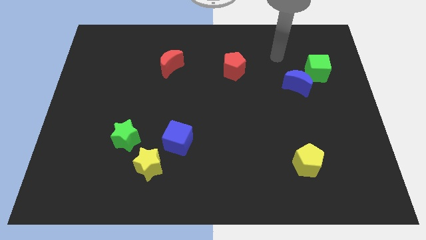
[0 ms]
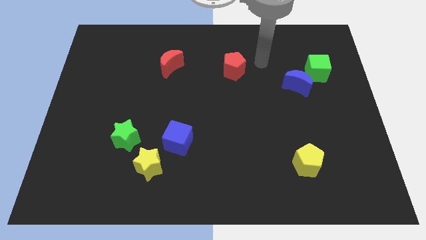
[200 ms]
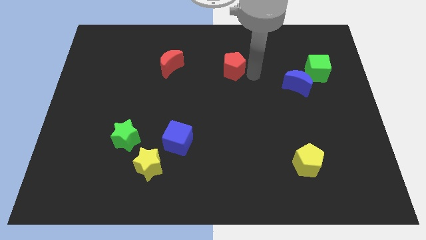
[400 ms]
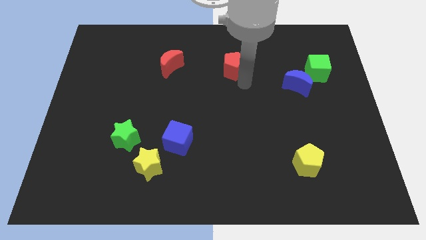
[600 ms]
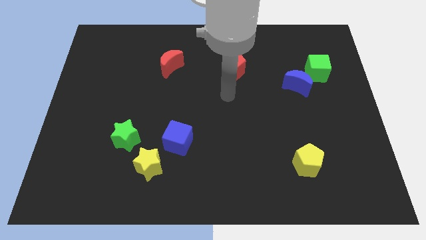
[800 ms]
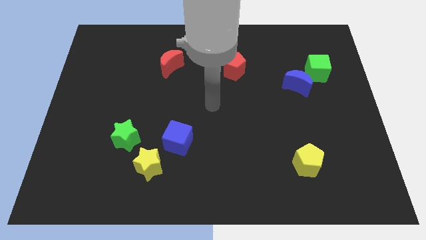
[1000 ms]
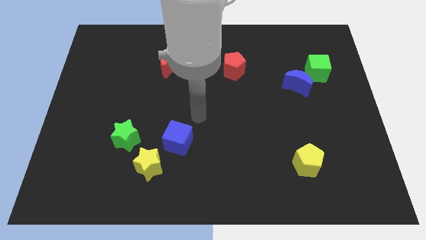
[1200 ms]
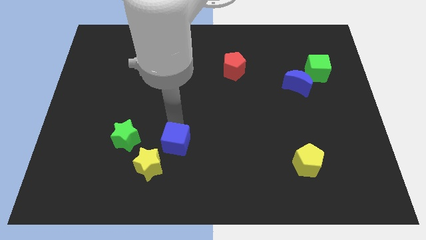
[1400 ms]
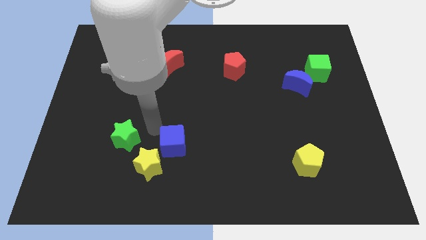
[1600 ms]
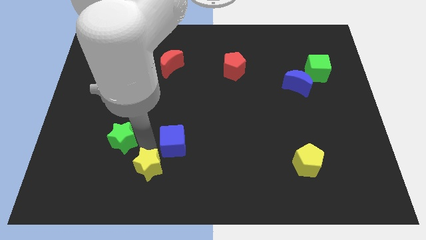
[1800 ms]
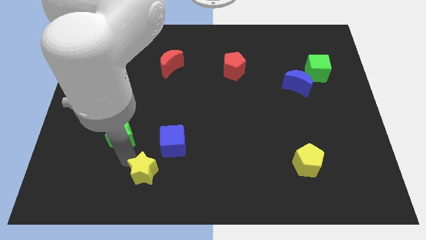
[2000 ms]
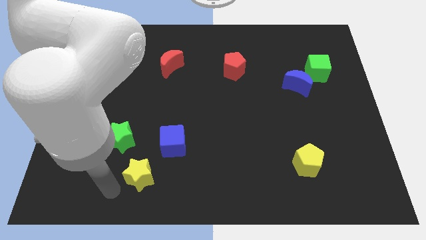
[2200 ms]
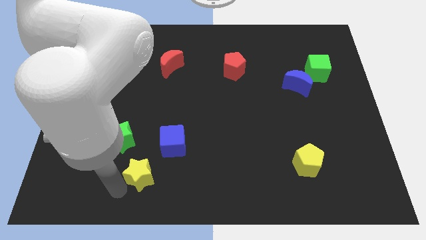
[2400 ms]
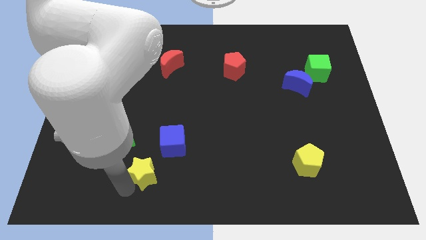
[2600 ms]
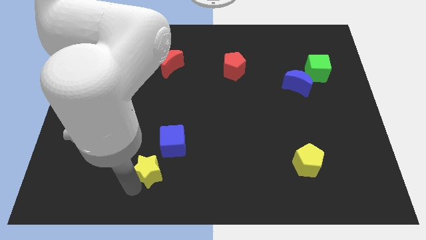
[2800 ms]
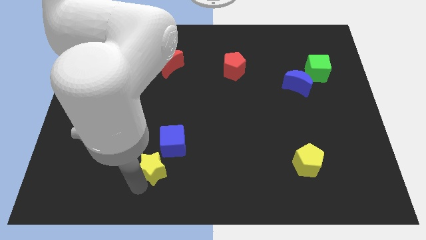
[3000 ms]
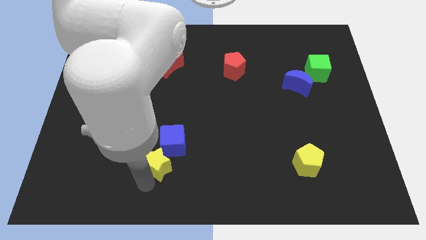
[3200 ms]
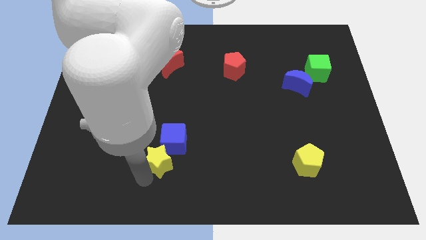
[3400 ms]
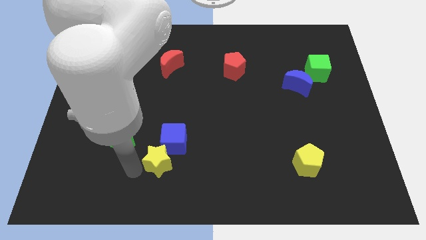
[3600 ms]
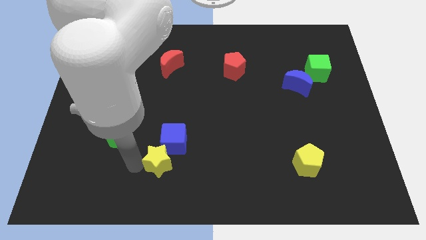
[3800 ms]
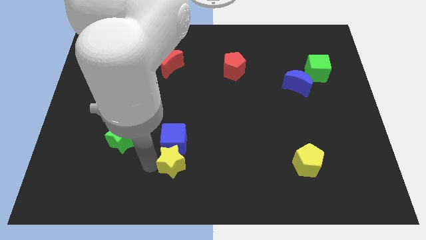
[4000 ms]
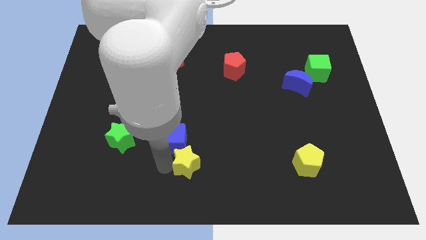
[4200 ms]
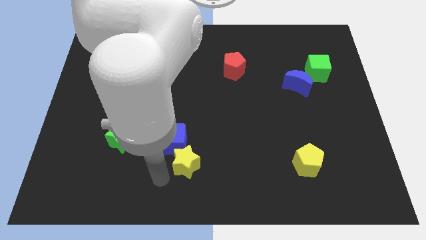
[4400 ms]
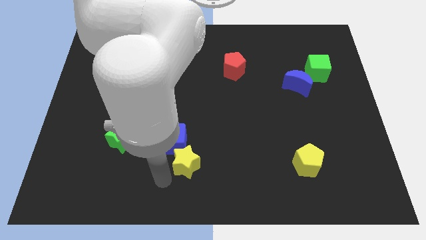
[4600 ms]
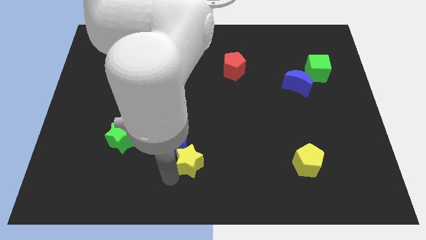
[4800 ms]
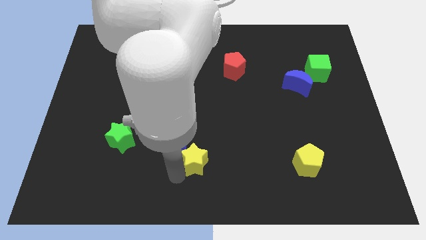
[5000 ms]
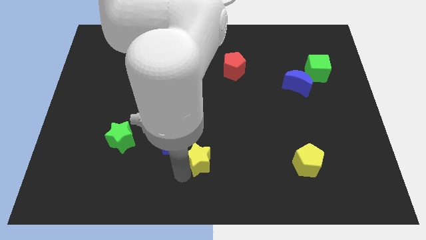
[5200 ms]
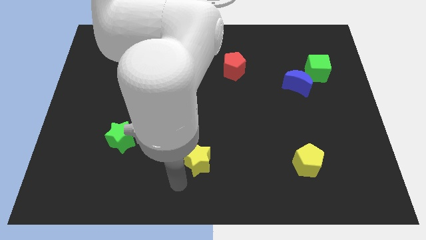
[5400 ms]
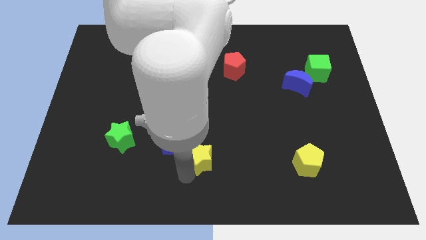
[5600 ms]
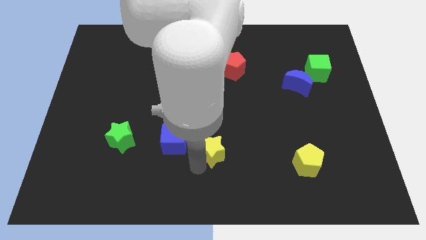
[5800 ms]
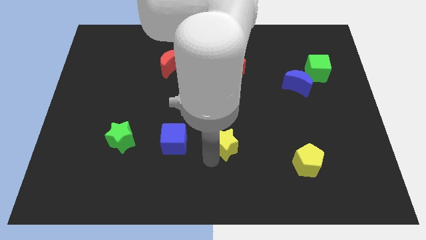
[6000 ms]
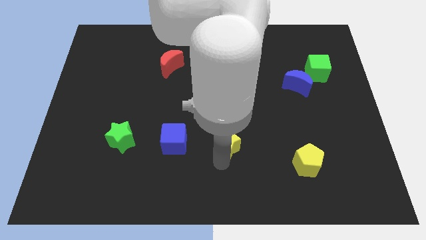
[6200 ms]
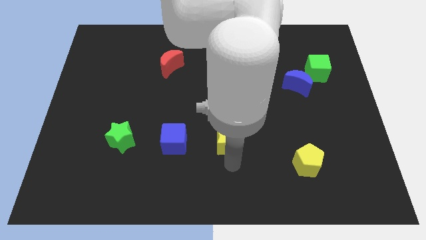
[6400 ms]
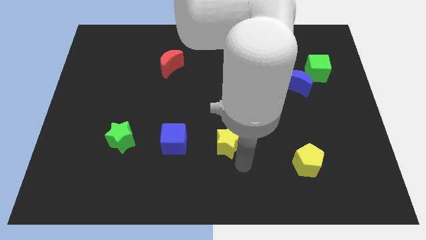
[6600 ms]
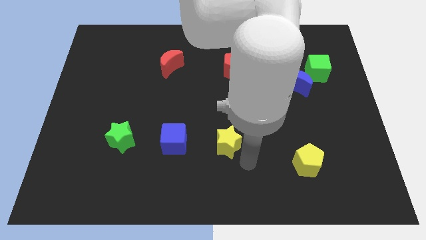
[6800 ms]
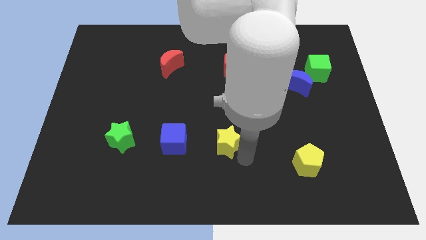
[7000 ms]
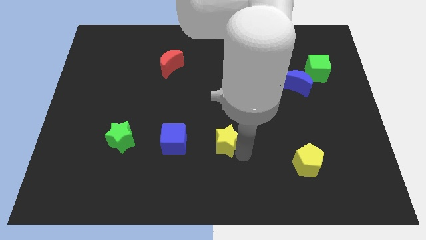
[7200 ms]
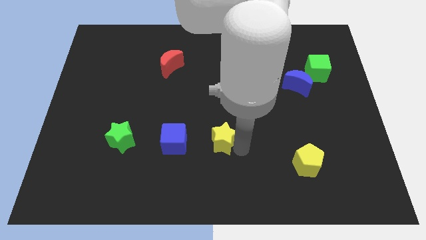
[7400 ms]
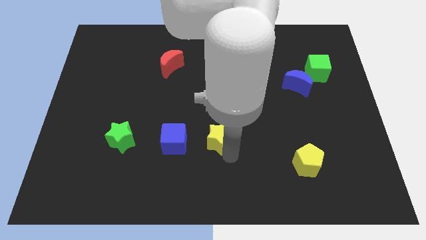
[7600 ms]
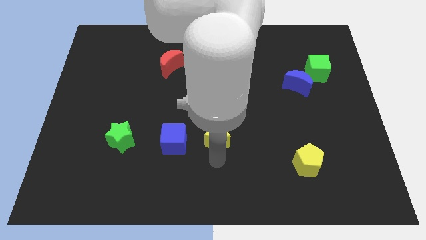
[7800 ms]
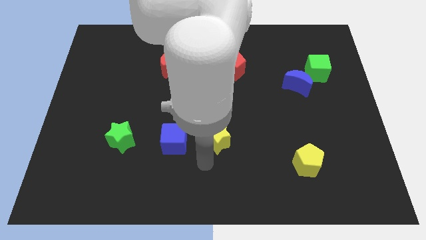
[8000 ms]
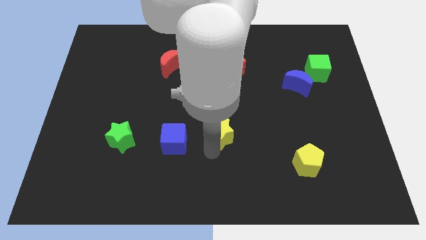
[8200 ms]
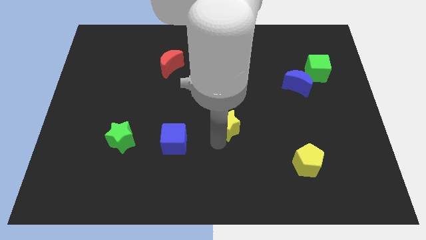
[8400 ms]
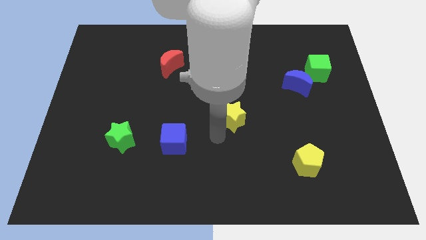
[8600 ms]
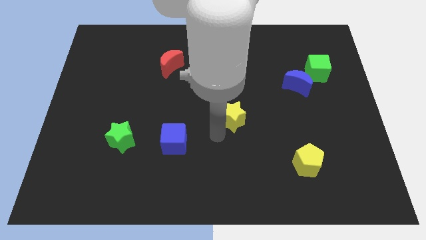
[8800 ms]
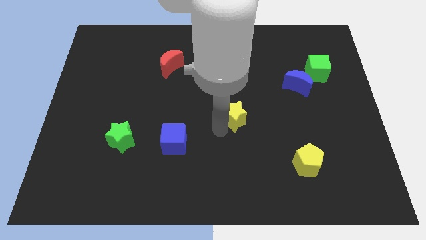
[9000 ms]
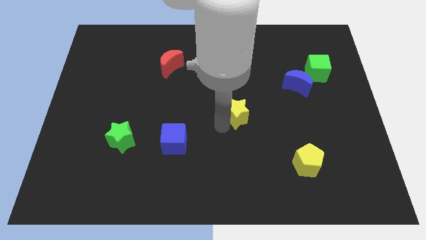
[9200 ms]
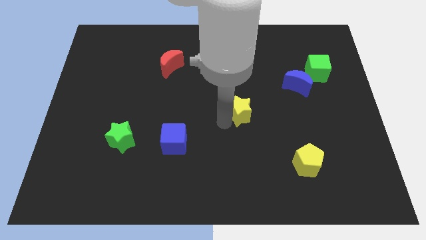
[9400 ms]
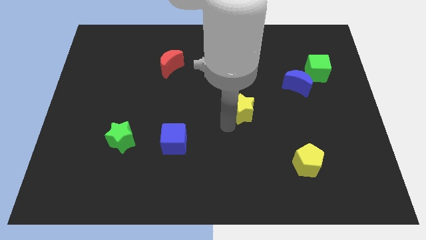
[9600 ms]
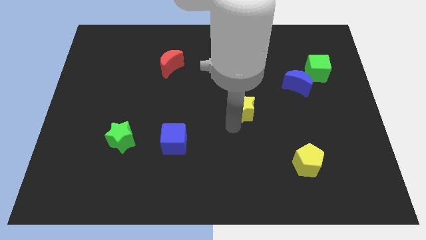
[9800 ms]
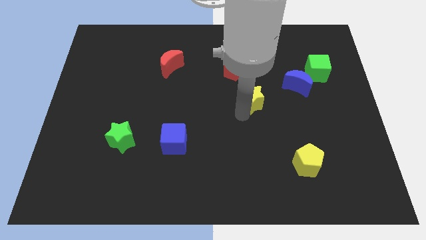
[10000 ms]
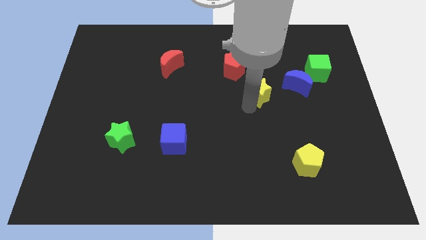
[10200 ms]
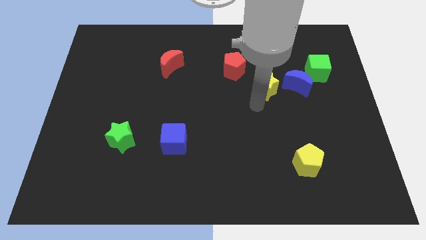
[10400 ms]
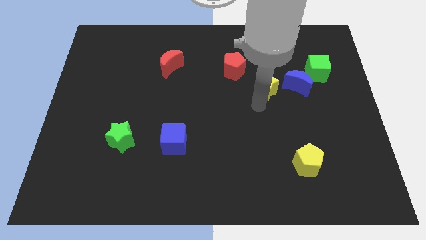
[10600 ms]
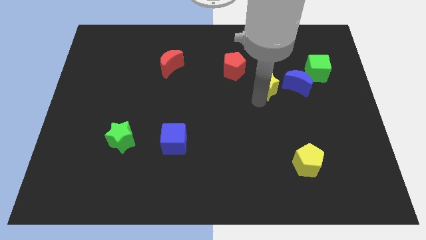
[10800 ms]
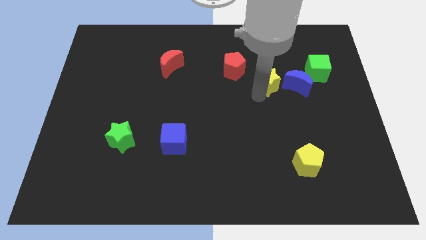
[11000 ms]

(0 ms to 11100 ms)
slide the yellow star to the top left of the blue moon

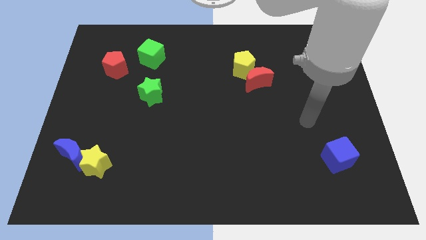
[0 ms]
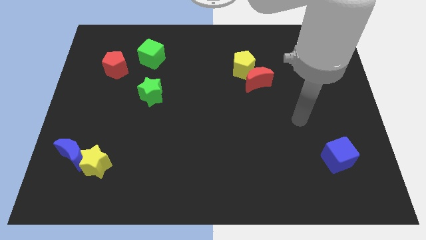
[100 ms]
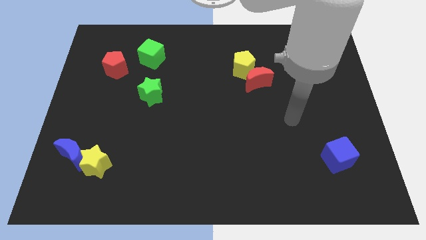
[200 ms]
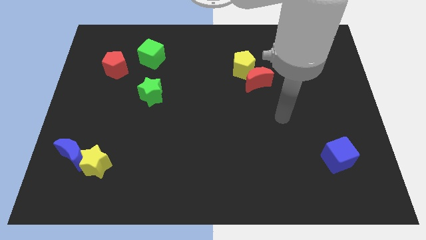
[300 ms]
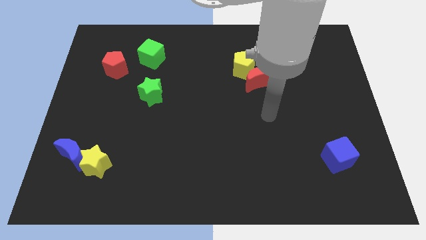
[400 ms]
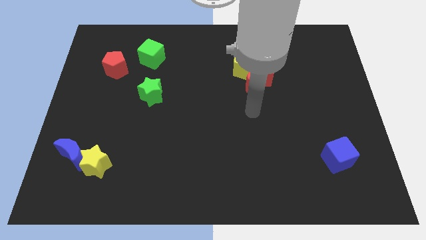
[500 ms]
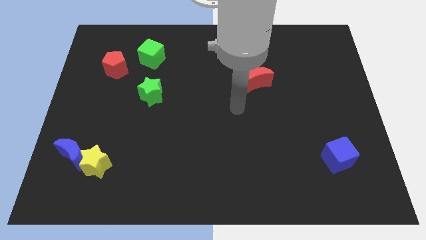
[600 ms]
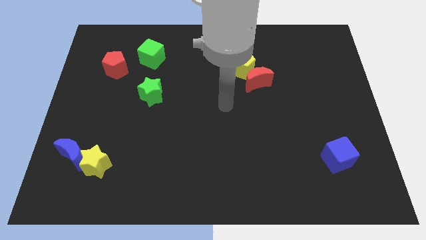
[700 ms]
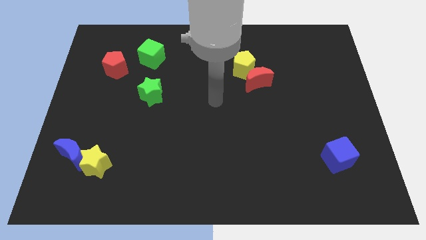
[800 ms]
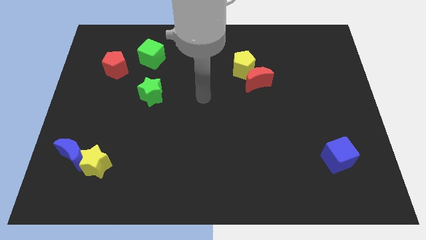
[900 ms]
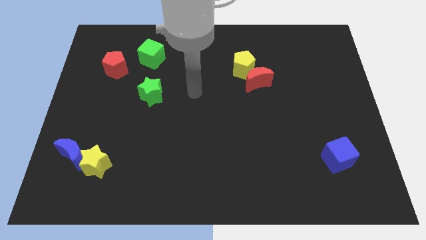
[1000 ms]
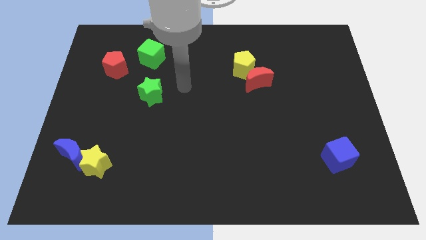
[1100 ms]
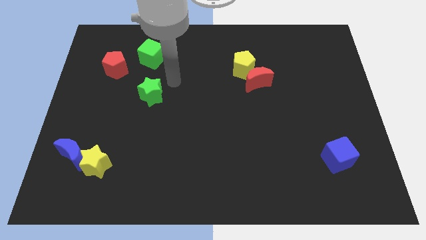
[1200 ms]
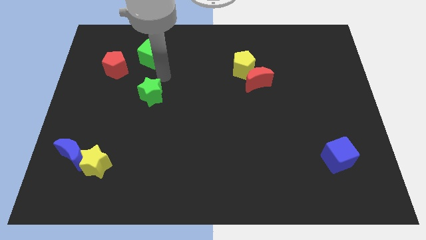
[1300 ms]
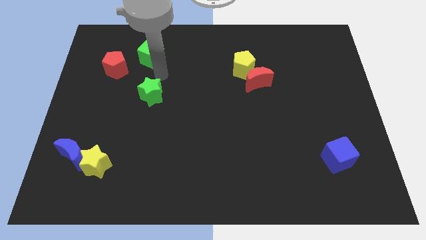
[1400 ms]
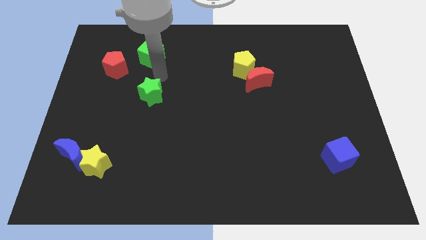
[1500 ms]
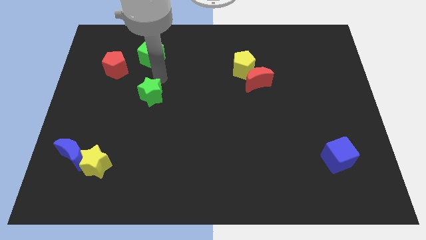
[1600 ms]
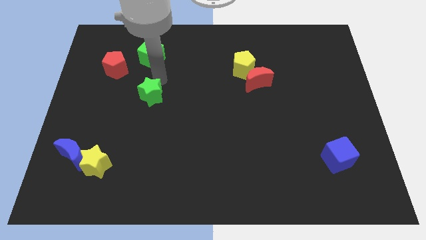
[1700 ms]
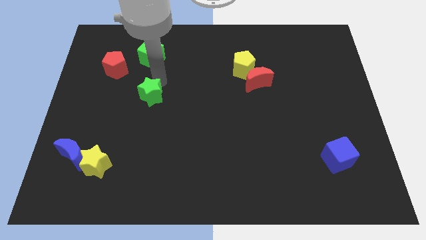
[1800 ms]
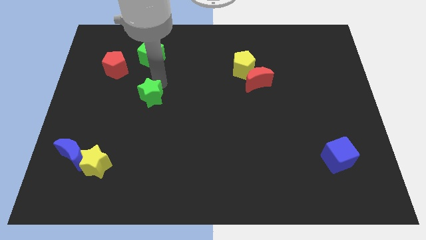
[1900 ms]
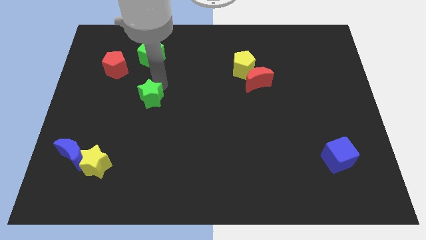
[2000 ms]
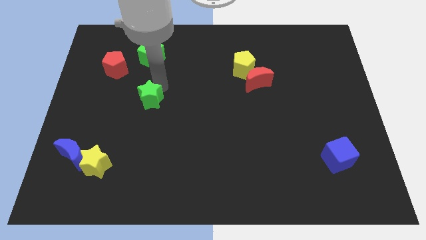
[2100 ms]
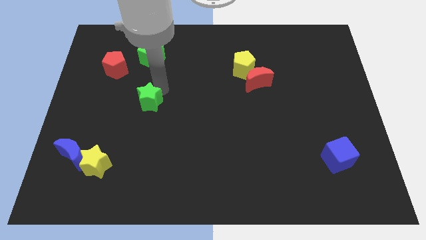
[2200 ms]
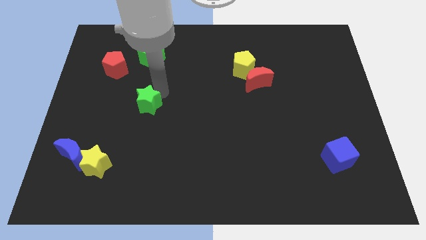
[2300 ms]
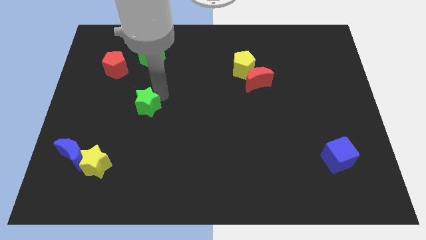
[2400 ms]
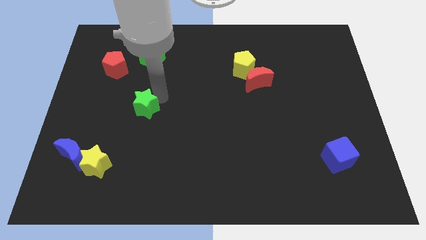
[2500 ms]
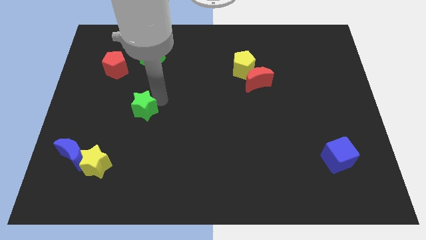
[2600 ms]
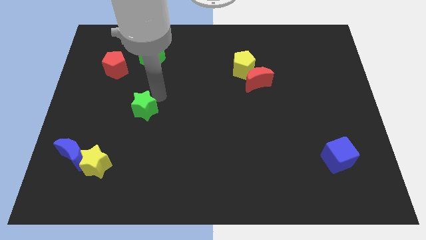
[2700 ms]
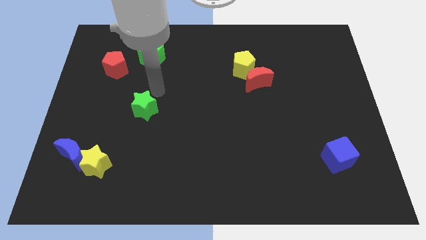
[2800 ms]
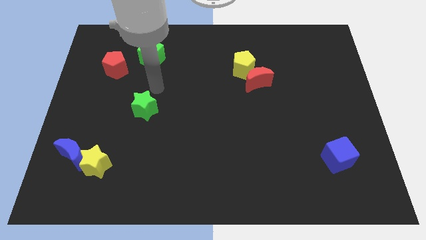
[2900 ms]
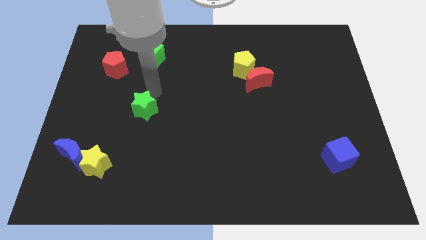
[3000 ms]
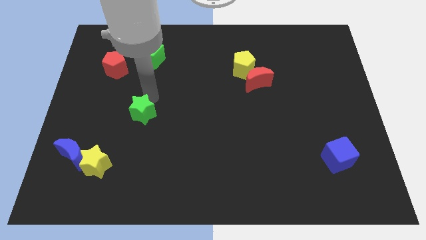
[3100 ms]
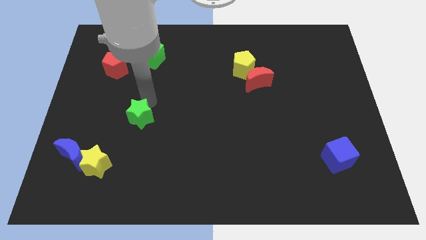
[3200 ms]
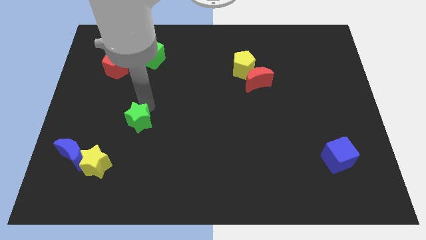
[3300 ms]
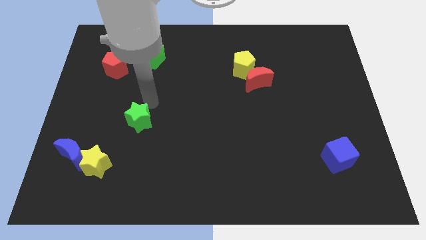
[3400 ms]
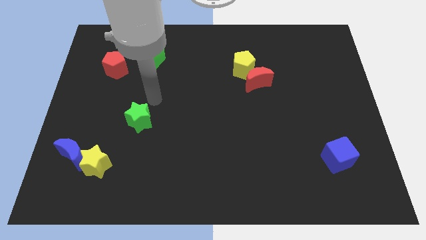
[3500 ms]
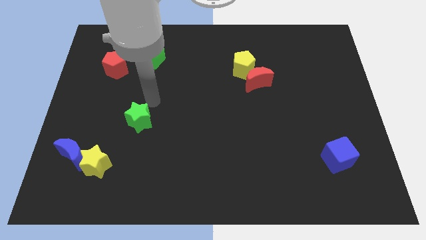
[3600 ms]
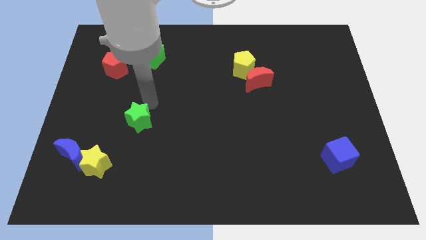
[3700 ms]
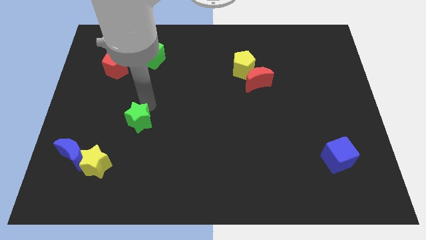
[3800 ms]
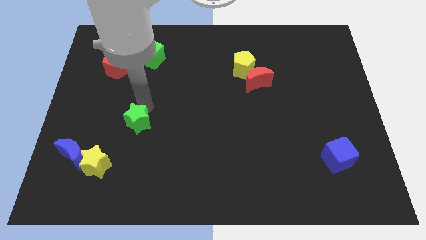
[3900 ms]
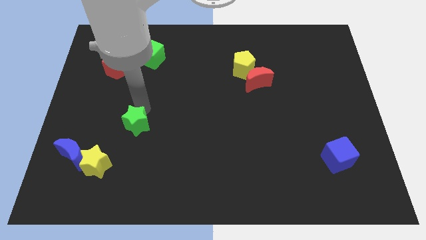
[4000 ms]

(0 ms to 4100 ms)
move the green star diagonally up and to the right of the yellow star
